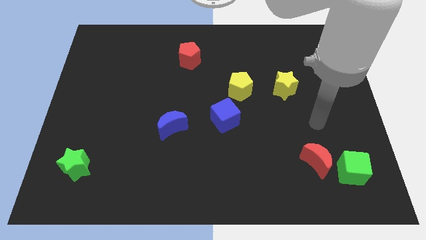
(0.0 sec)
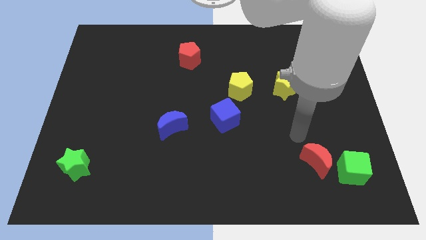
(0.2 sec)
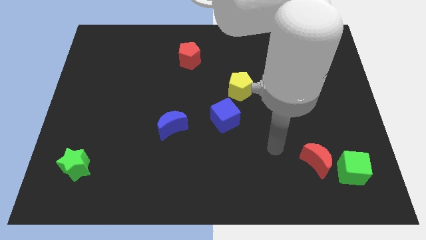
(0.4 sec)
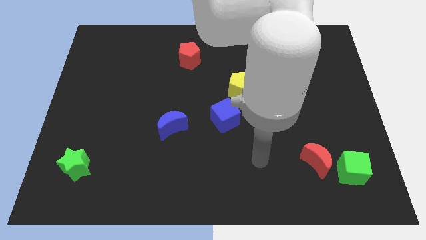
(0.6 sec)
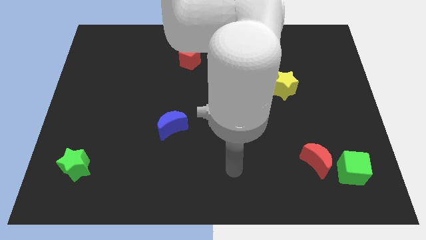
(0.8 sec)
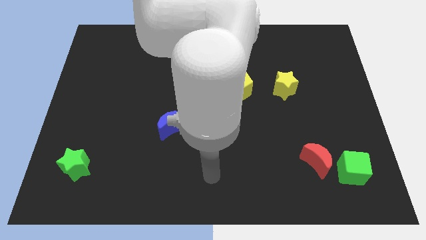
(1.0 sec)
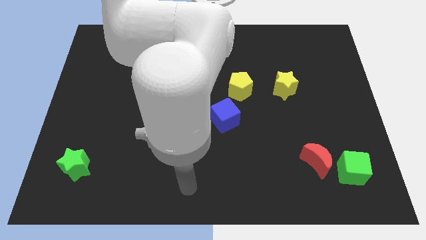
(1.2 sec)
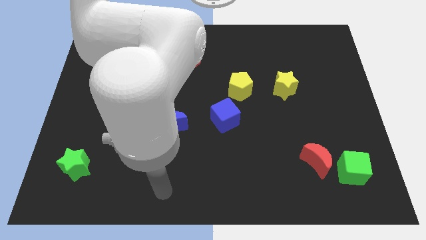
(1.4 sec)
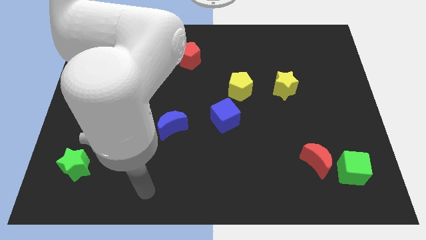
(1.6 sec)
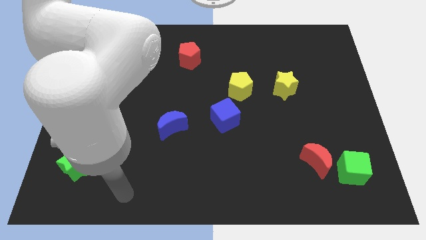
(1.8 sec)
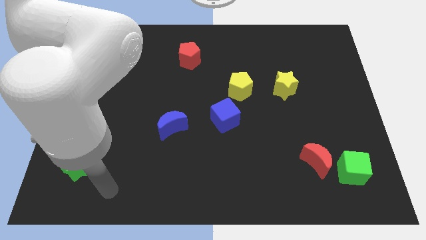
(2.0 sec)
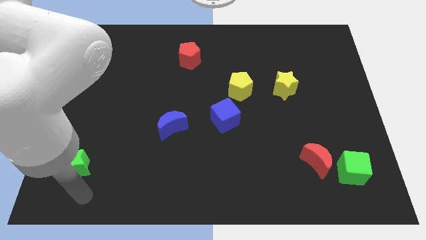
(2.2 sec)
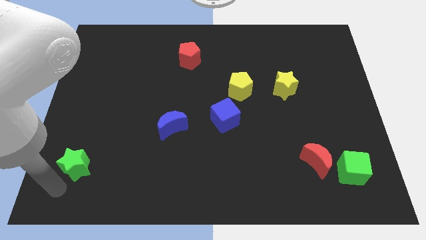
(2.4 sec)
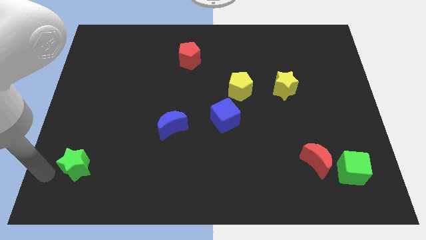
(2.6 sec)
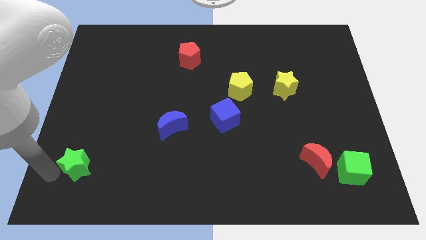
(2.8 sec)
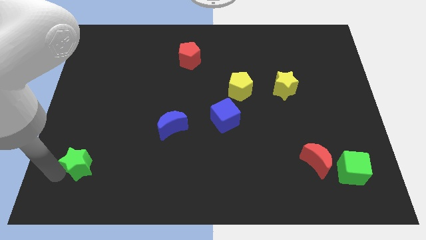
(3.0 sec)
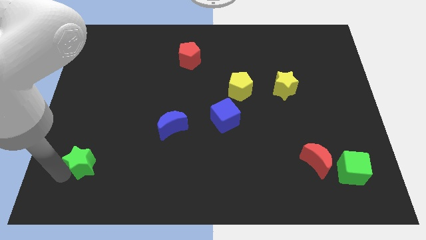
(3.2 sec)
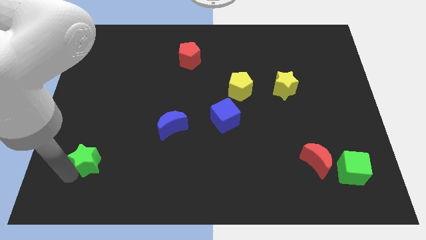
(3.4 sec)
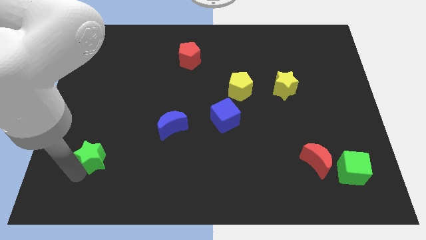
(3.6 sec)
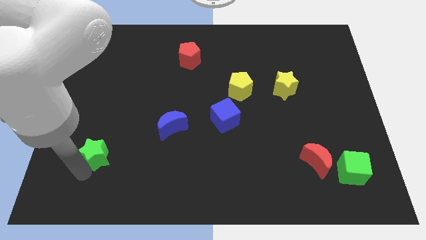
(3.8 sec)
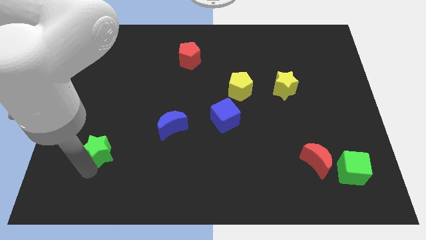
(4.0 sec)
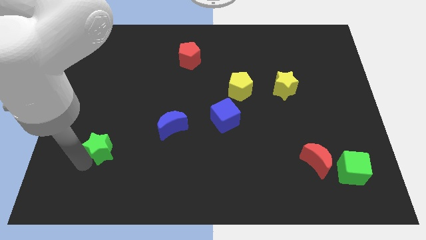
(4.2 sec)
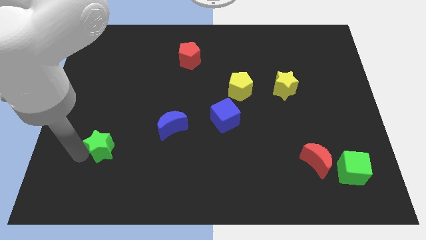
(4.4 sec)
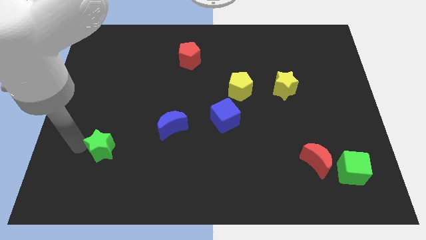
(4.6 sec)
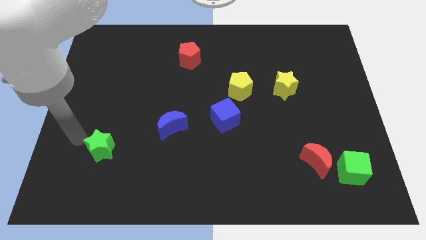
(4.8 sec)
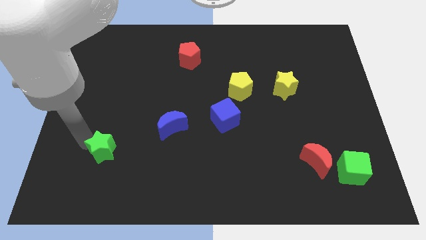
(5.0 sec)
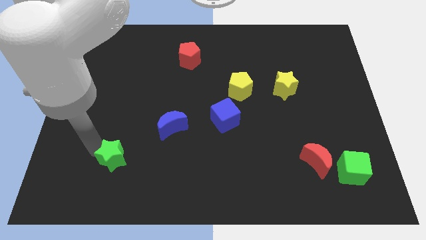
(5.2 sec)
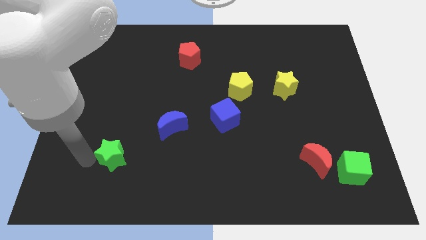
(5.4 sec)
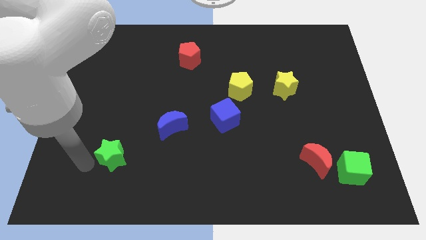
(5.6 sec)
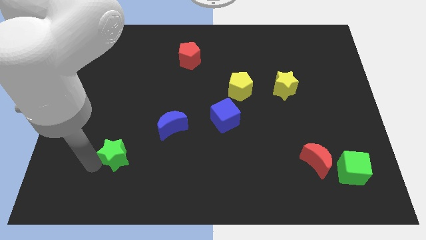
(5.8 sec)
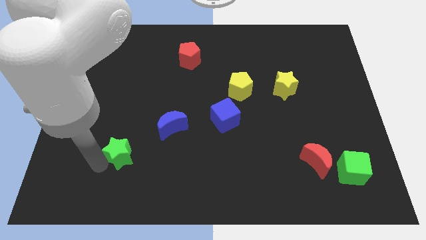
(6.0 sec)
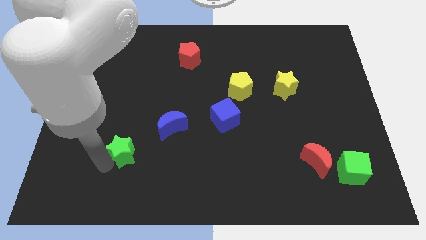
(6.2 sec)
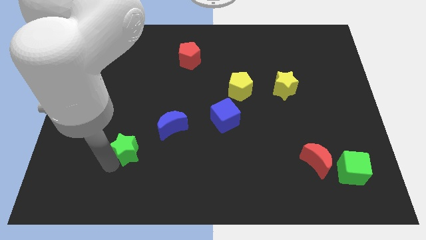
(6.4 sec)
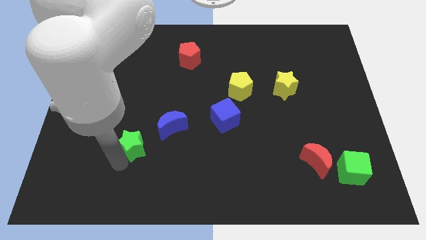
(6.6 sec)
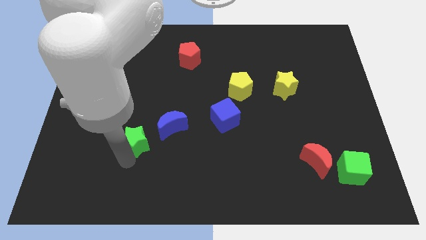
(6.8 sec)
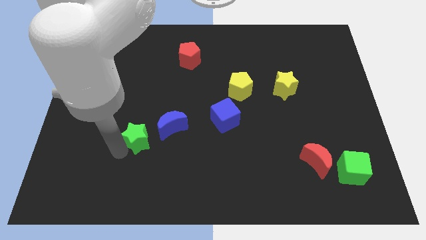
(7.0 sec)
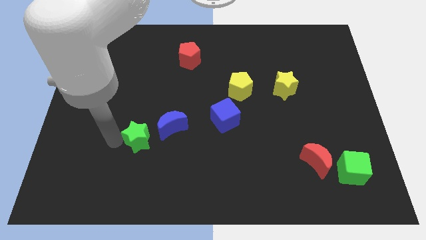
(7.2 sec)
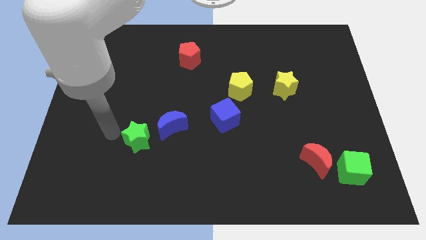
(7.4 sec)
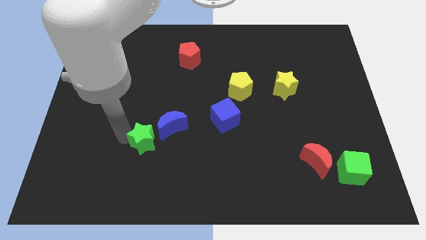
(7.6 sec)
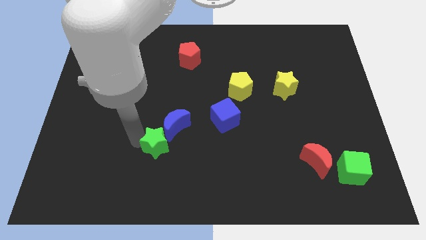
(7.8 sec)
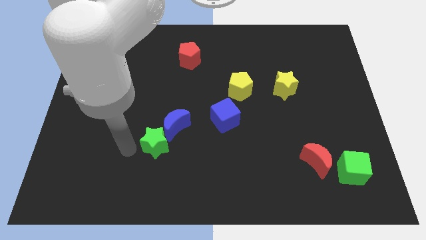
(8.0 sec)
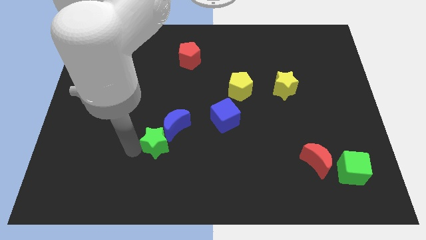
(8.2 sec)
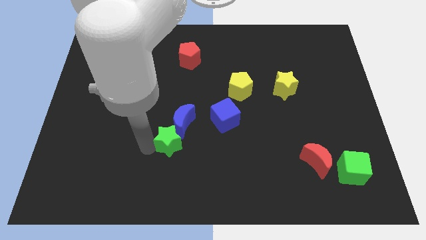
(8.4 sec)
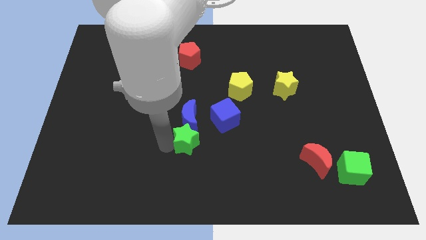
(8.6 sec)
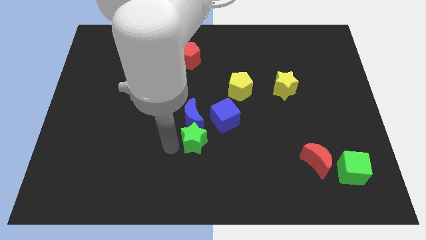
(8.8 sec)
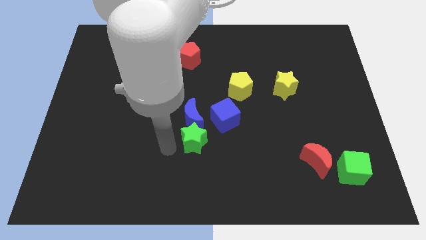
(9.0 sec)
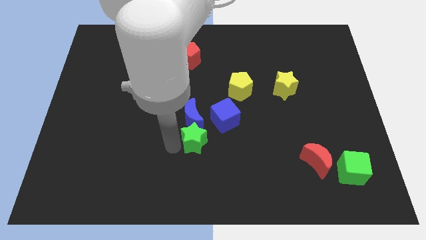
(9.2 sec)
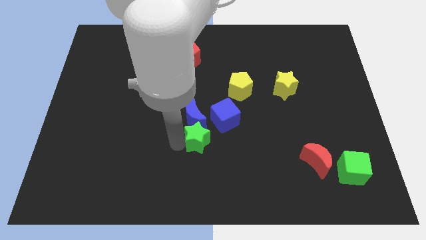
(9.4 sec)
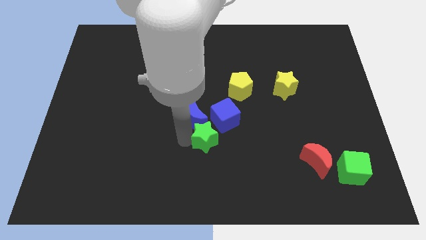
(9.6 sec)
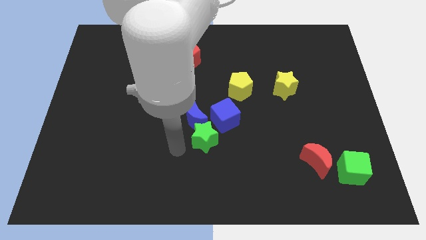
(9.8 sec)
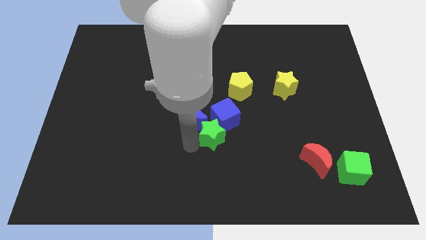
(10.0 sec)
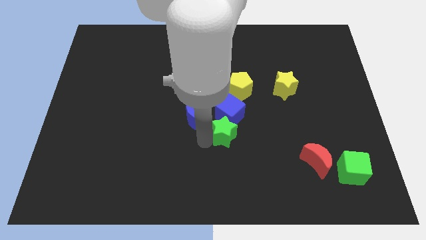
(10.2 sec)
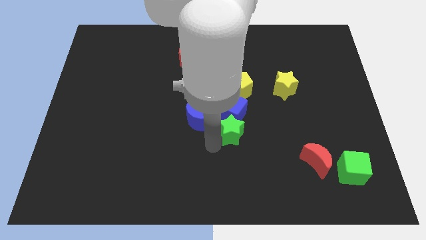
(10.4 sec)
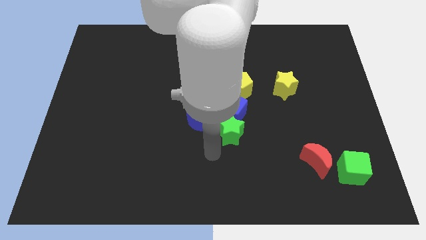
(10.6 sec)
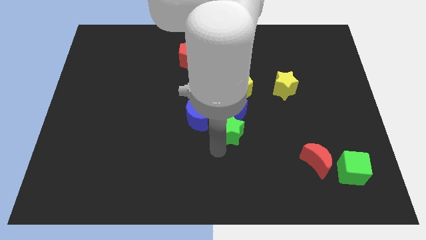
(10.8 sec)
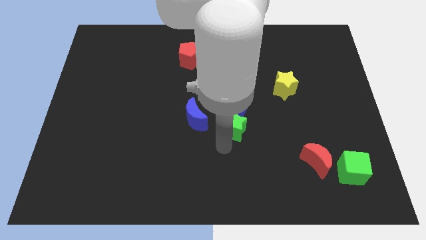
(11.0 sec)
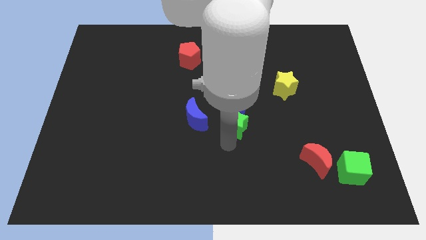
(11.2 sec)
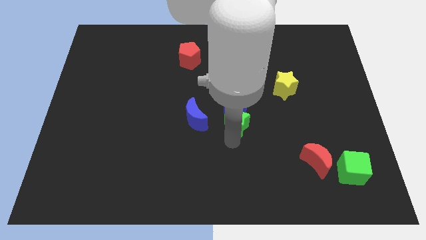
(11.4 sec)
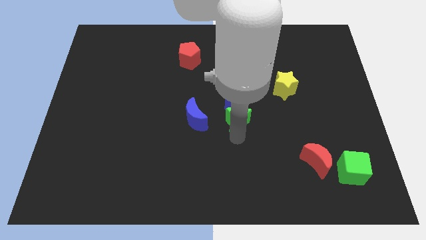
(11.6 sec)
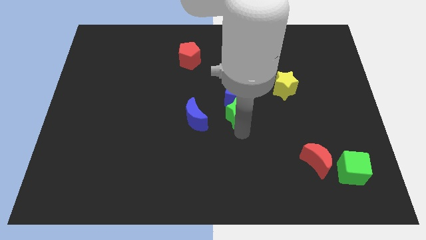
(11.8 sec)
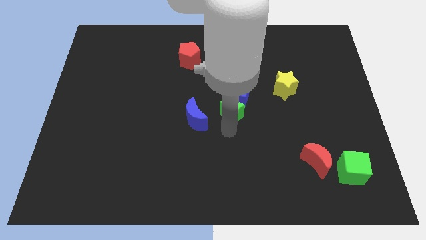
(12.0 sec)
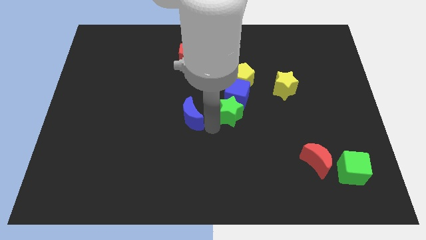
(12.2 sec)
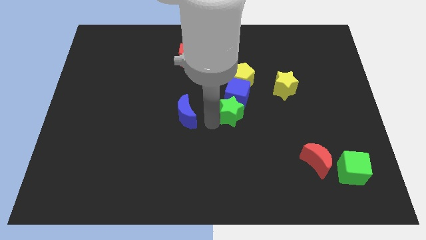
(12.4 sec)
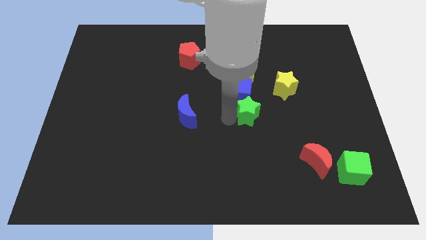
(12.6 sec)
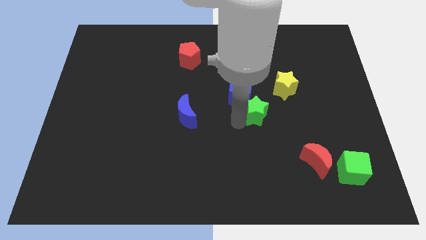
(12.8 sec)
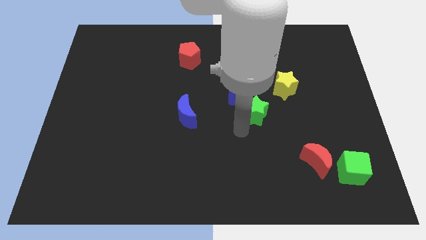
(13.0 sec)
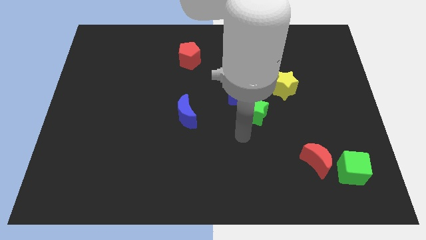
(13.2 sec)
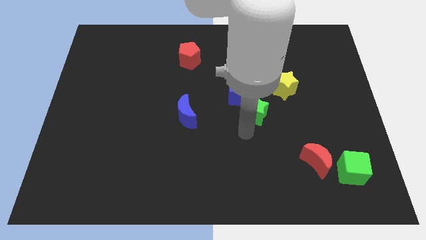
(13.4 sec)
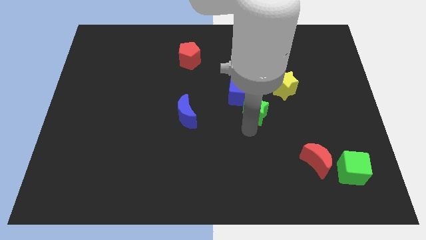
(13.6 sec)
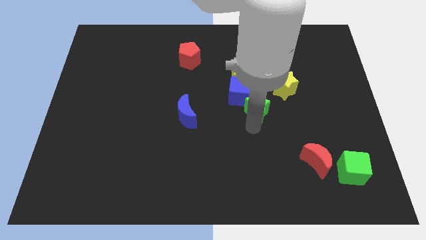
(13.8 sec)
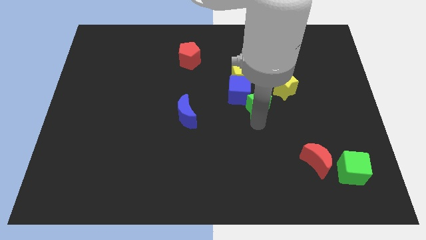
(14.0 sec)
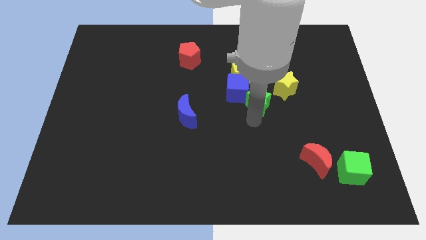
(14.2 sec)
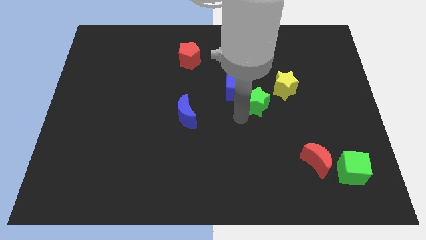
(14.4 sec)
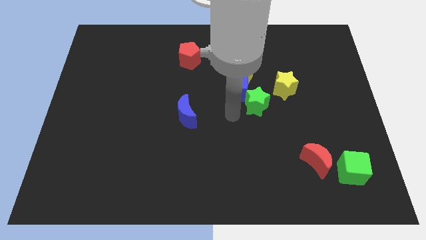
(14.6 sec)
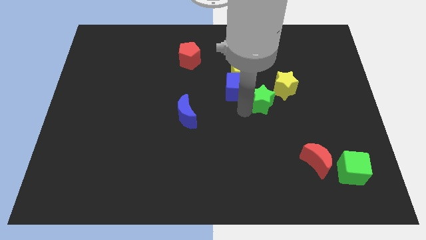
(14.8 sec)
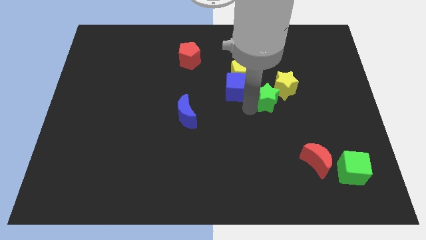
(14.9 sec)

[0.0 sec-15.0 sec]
put the green star close to the yellow star
